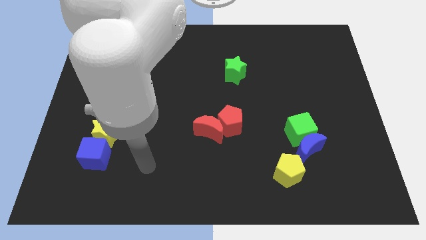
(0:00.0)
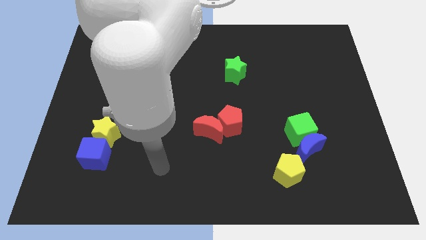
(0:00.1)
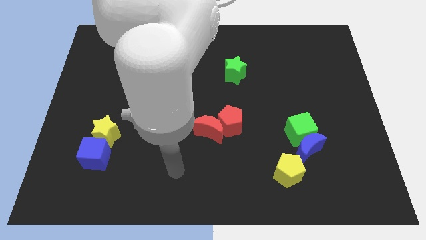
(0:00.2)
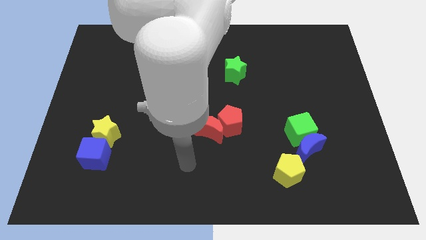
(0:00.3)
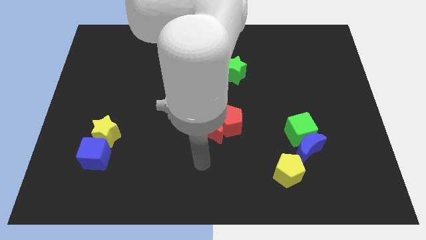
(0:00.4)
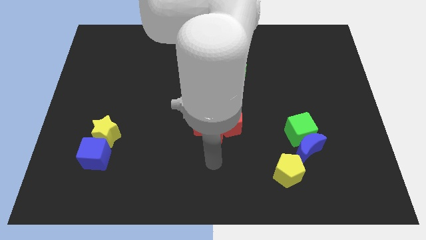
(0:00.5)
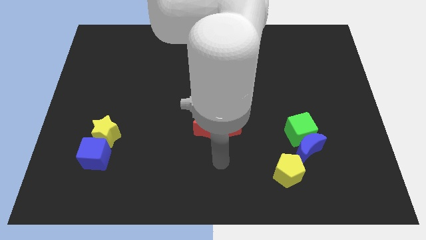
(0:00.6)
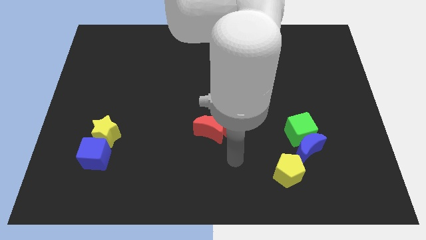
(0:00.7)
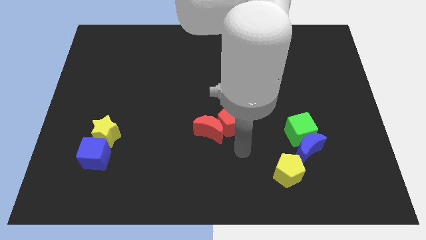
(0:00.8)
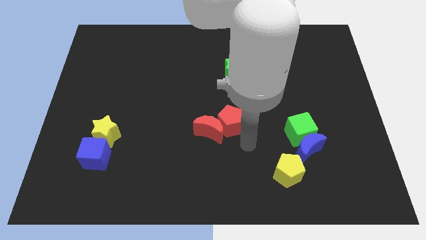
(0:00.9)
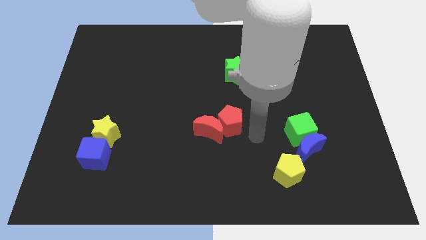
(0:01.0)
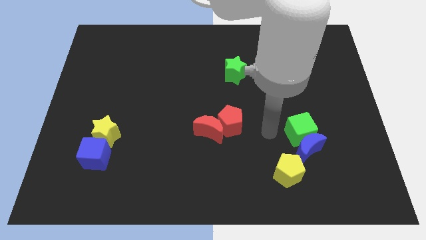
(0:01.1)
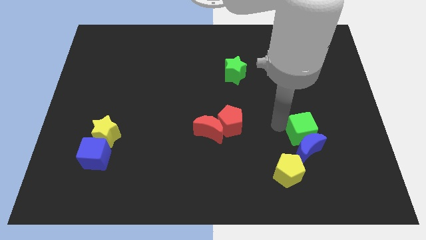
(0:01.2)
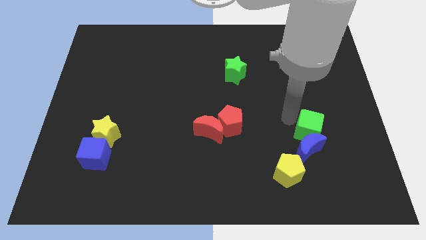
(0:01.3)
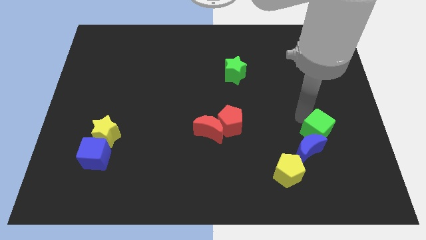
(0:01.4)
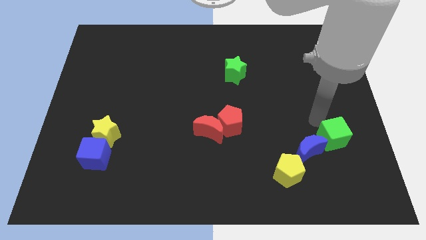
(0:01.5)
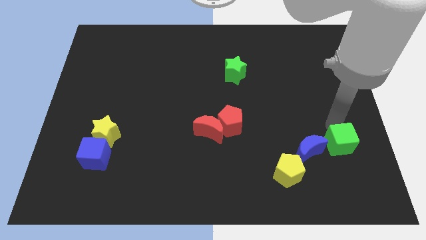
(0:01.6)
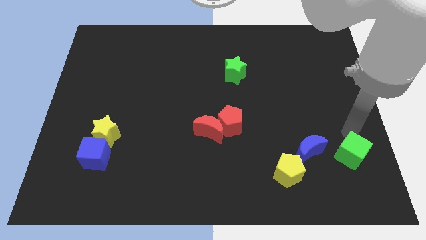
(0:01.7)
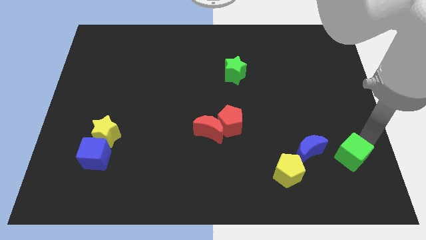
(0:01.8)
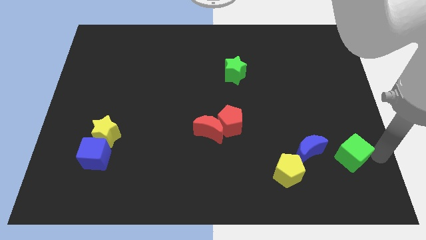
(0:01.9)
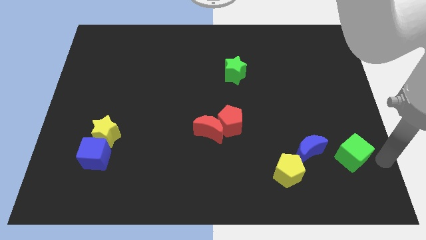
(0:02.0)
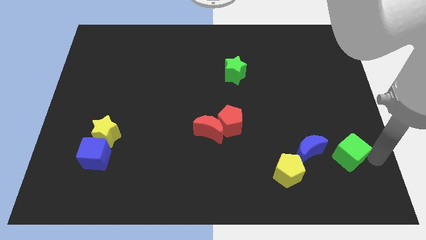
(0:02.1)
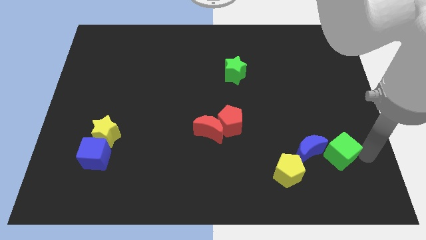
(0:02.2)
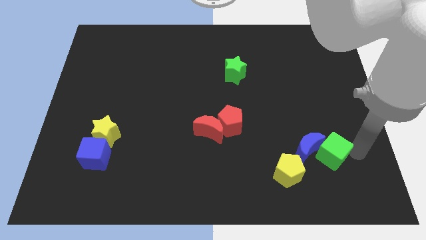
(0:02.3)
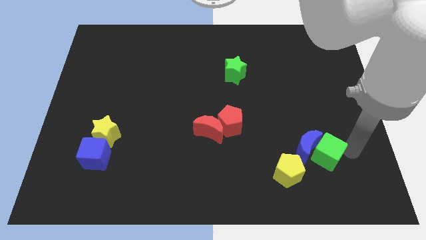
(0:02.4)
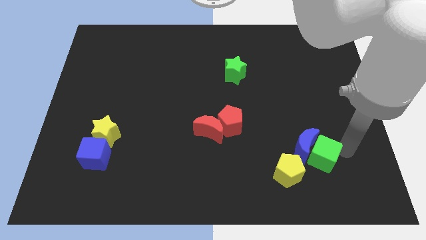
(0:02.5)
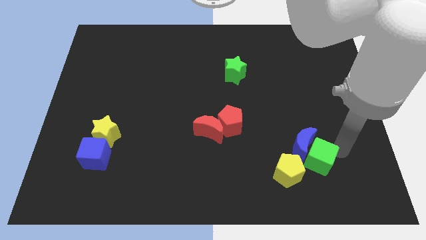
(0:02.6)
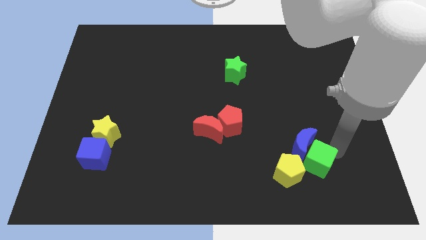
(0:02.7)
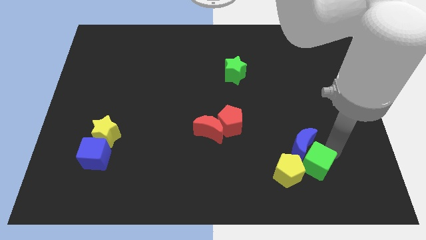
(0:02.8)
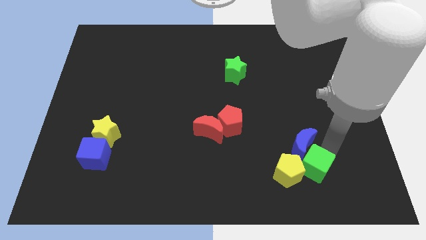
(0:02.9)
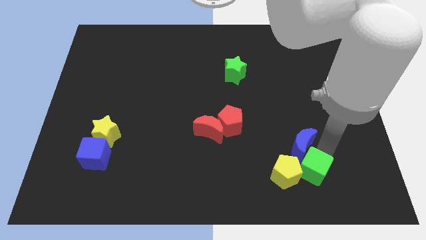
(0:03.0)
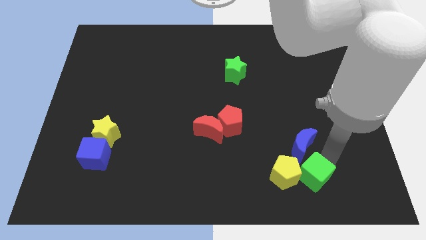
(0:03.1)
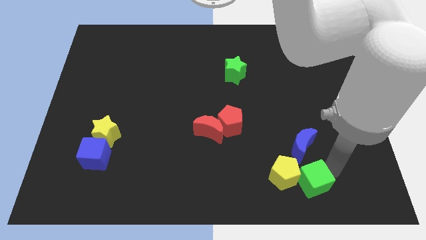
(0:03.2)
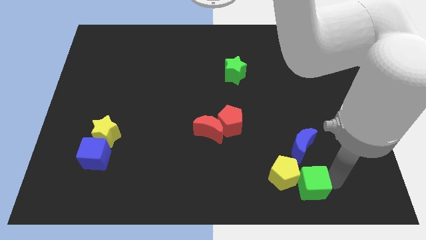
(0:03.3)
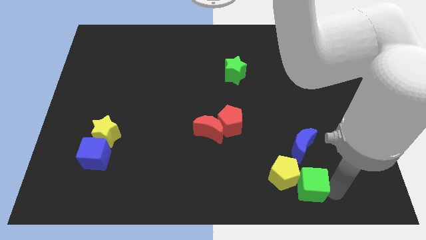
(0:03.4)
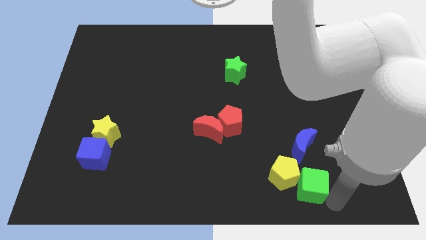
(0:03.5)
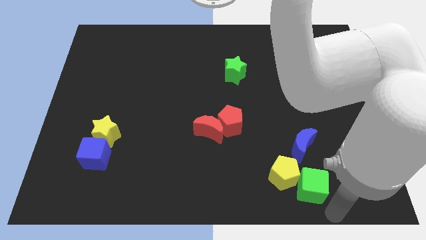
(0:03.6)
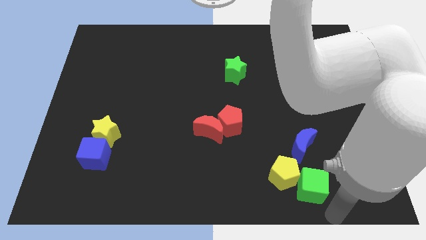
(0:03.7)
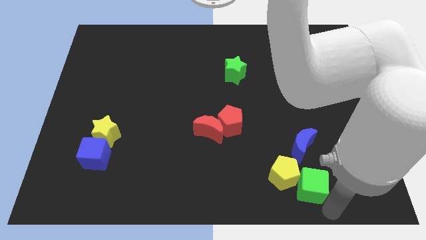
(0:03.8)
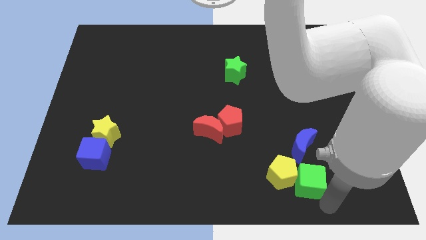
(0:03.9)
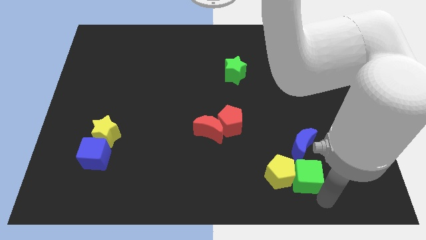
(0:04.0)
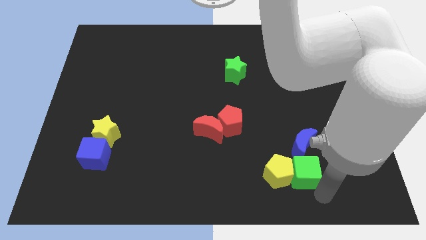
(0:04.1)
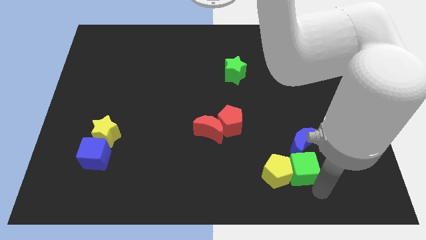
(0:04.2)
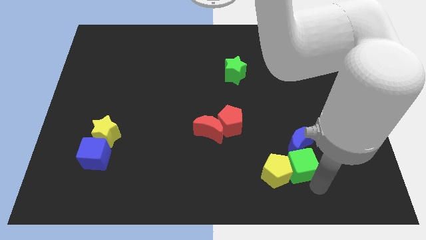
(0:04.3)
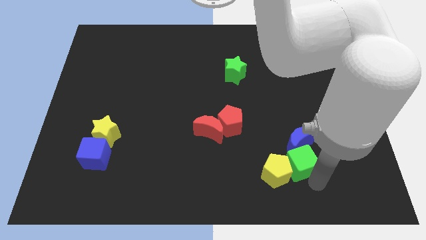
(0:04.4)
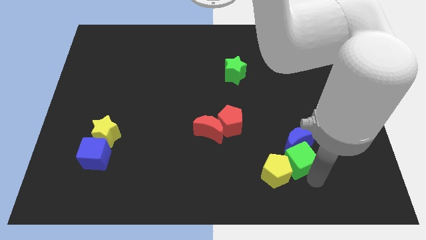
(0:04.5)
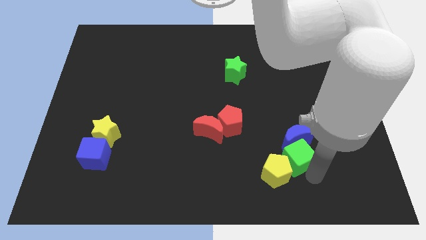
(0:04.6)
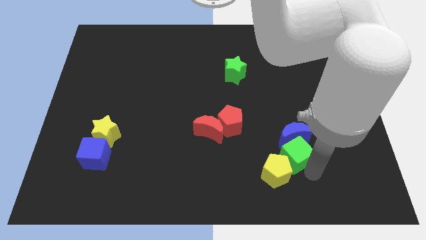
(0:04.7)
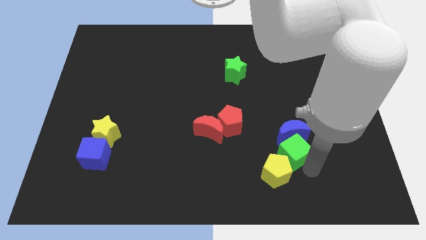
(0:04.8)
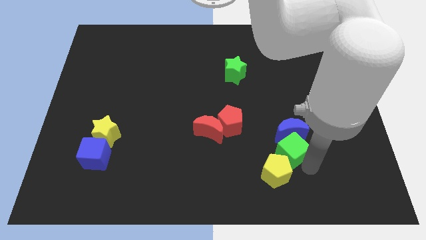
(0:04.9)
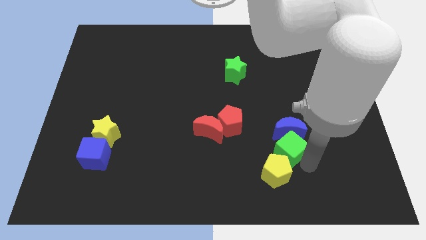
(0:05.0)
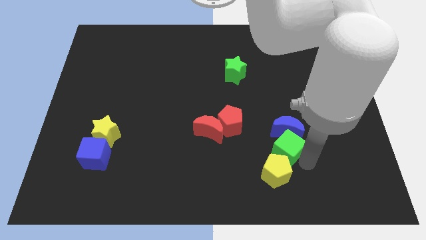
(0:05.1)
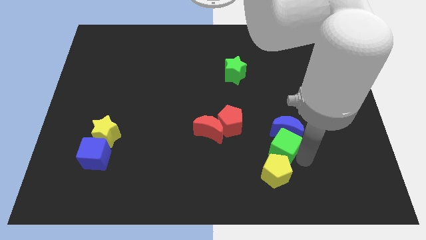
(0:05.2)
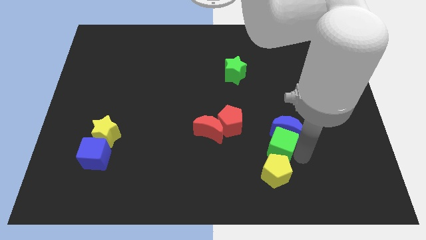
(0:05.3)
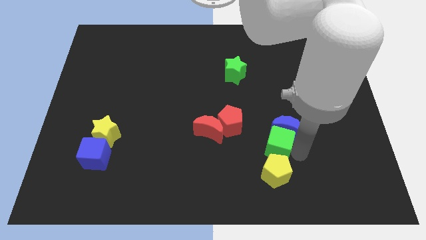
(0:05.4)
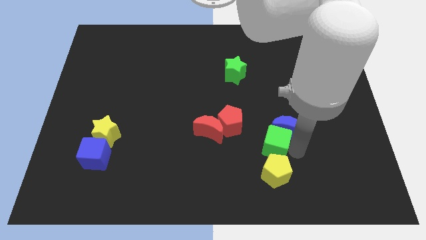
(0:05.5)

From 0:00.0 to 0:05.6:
put the green cube diagonally up and to the left of the yellow pentagon

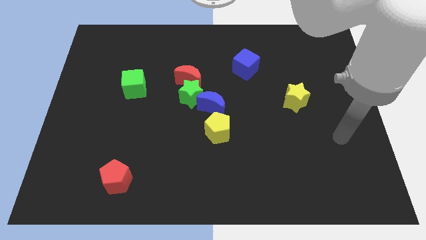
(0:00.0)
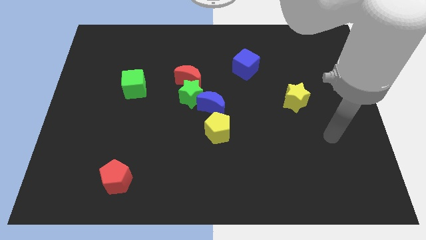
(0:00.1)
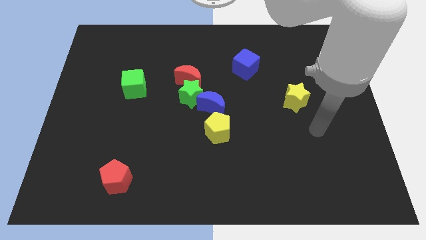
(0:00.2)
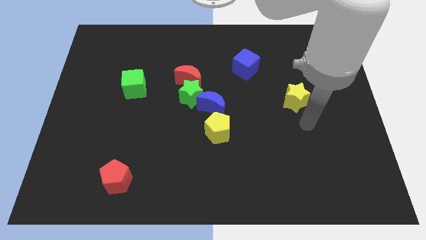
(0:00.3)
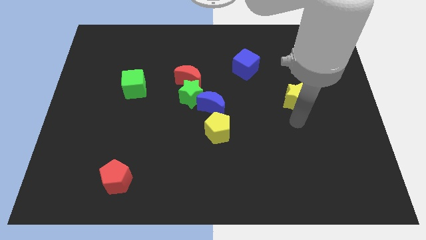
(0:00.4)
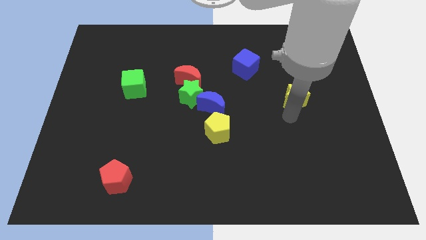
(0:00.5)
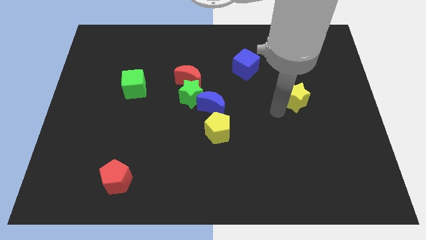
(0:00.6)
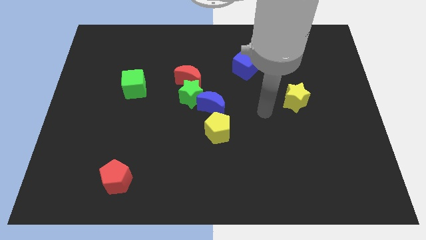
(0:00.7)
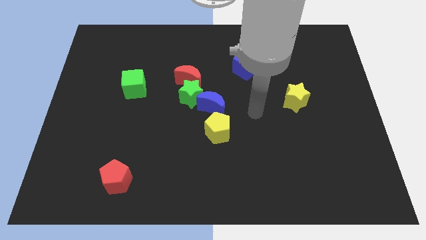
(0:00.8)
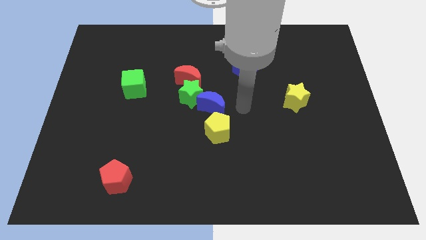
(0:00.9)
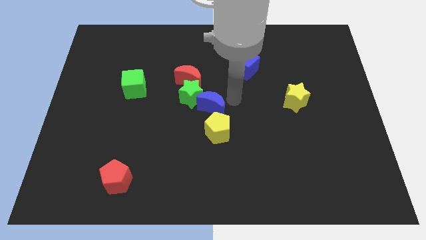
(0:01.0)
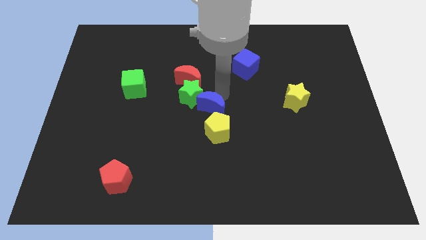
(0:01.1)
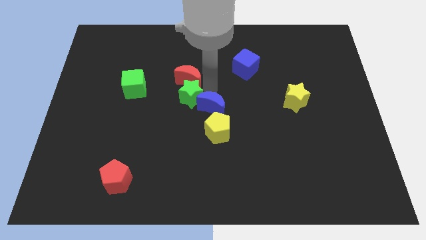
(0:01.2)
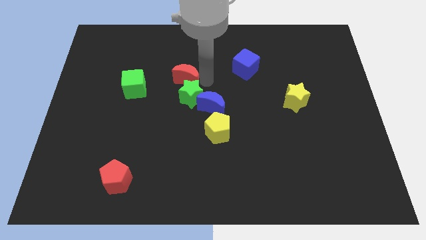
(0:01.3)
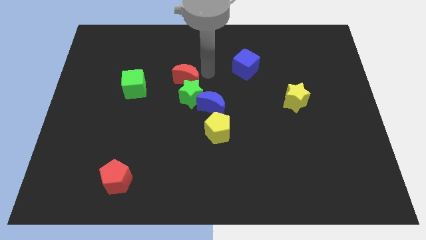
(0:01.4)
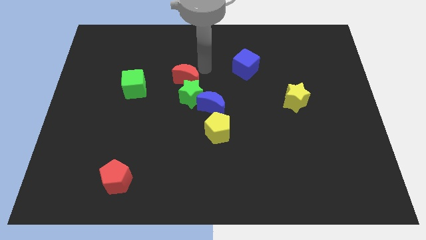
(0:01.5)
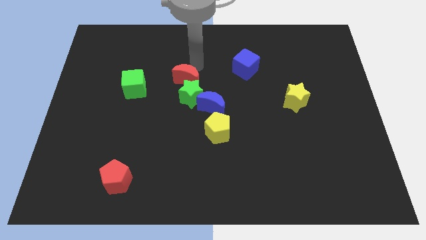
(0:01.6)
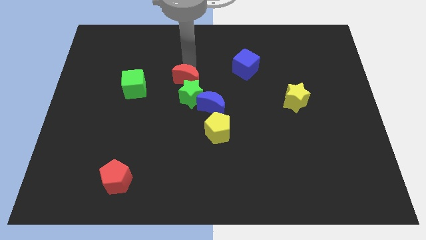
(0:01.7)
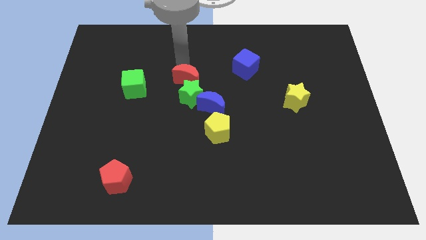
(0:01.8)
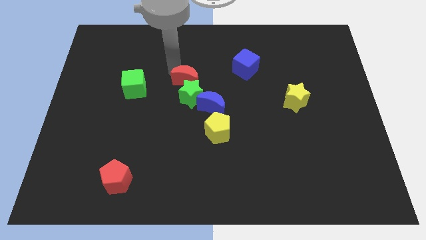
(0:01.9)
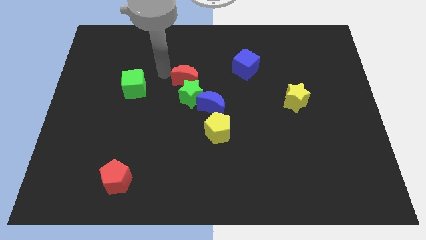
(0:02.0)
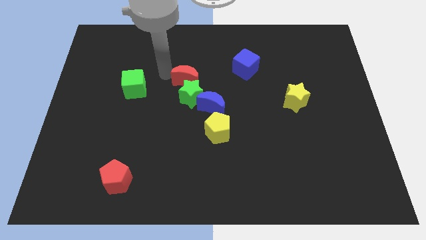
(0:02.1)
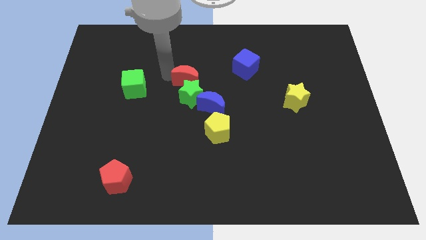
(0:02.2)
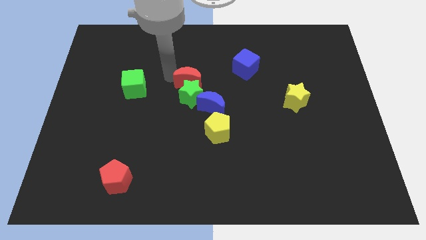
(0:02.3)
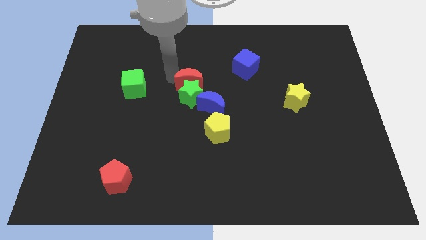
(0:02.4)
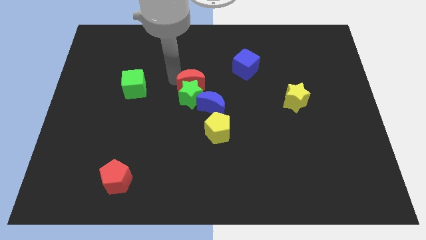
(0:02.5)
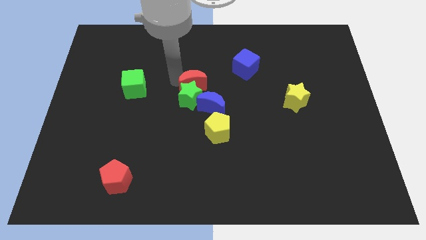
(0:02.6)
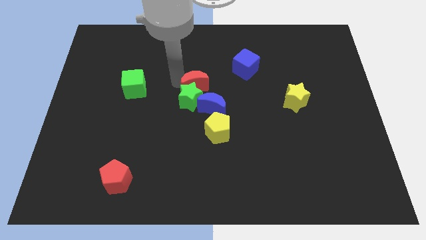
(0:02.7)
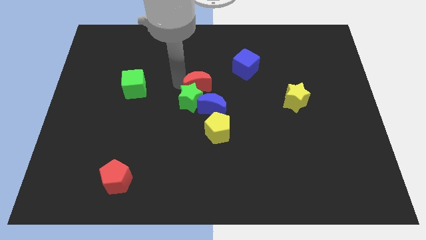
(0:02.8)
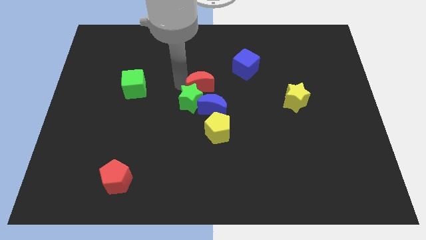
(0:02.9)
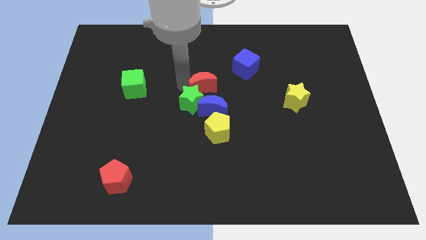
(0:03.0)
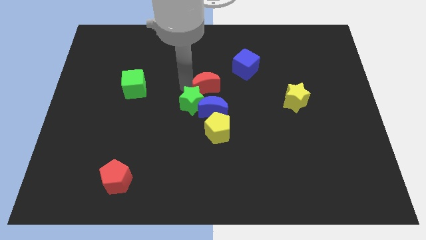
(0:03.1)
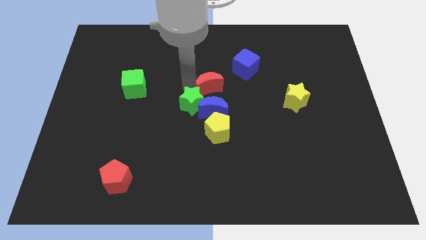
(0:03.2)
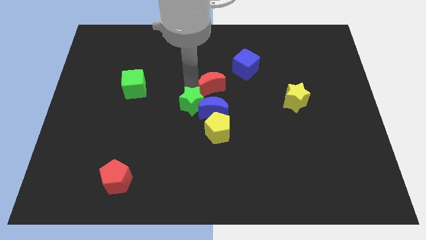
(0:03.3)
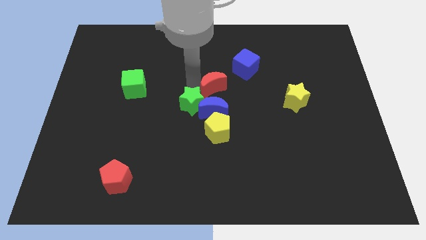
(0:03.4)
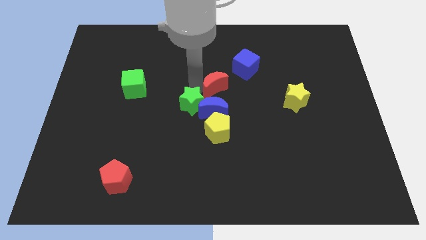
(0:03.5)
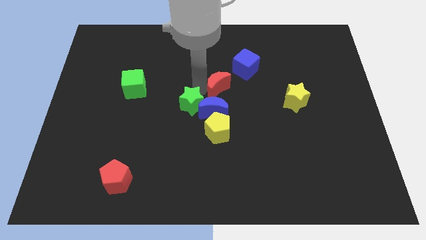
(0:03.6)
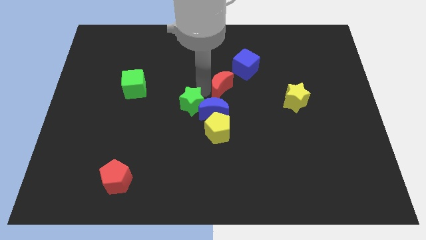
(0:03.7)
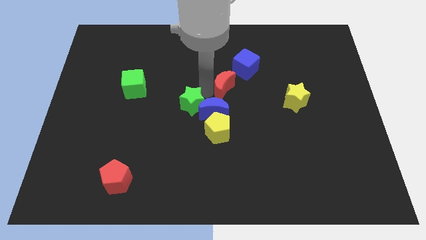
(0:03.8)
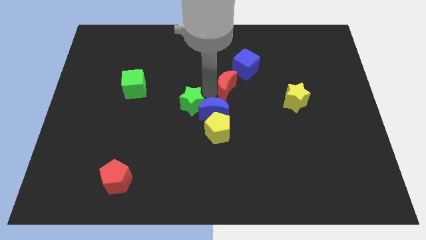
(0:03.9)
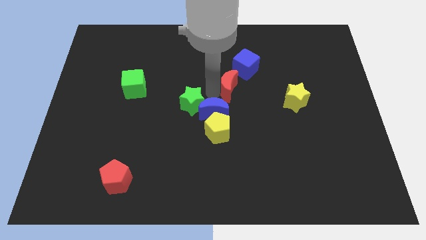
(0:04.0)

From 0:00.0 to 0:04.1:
slide the red moon to the bottom of the blue cube
